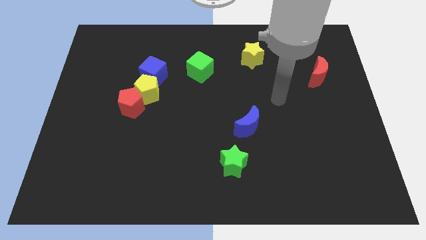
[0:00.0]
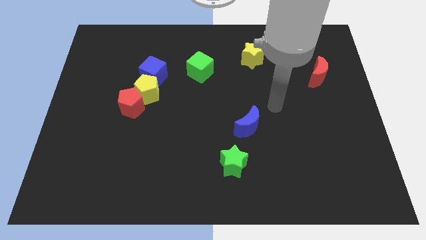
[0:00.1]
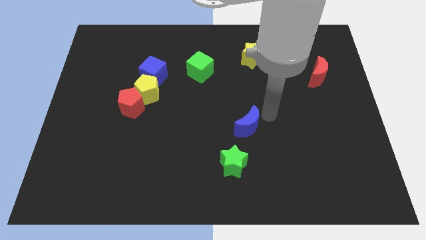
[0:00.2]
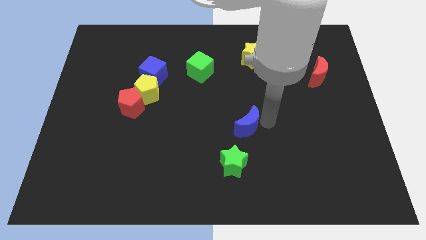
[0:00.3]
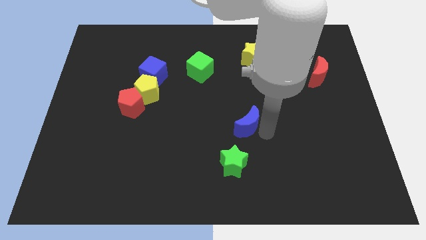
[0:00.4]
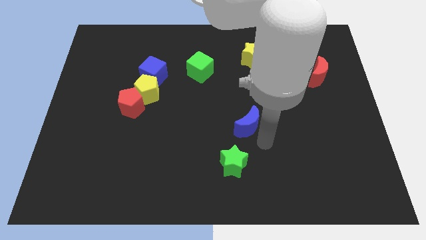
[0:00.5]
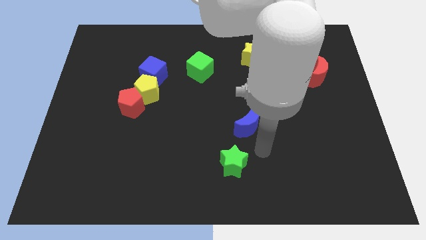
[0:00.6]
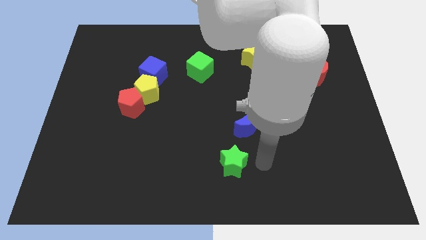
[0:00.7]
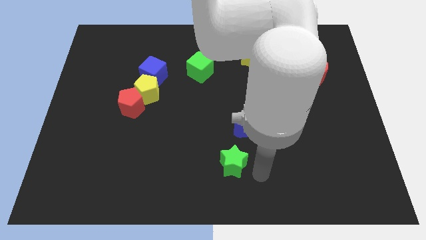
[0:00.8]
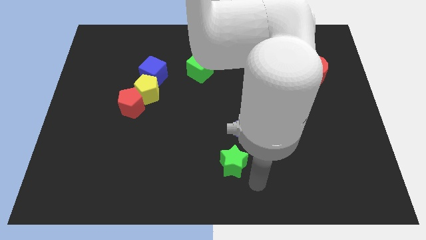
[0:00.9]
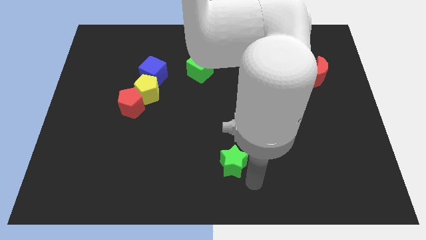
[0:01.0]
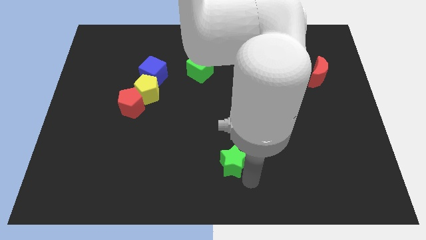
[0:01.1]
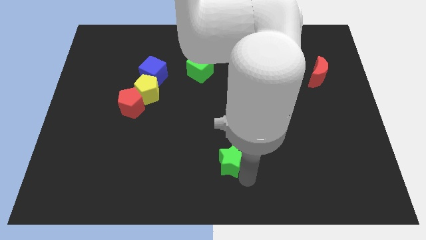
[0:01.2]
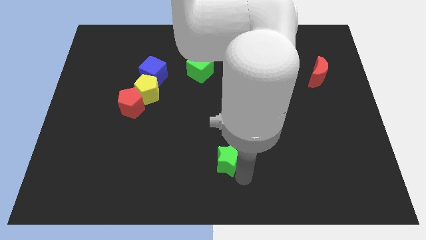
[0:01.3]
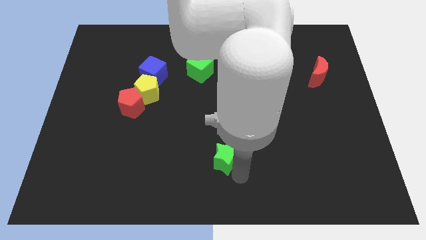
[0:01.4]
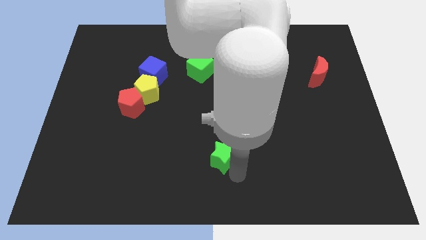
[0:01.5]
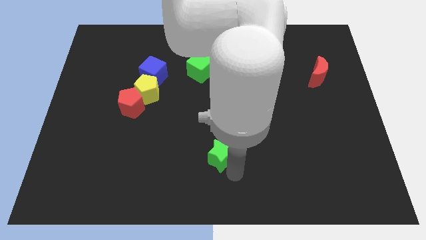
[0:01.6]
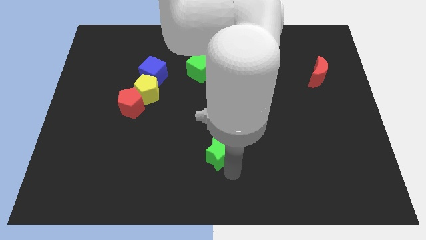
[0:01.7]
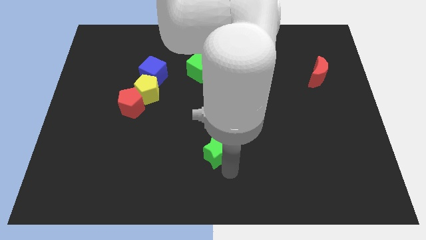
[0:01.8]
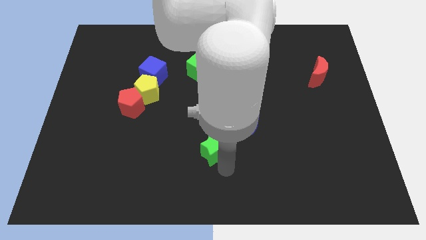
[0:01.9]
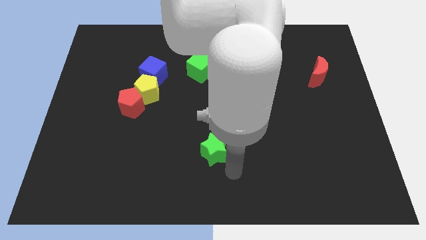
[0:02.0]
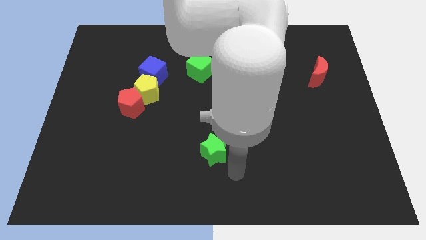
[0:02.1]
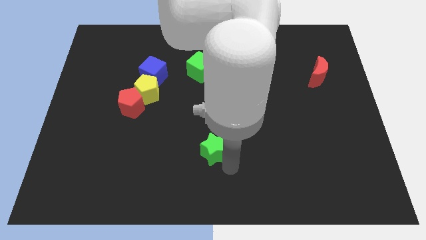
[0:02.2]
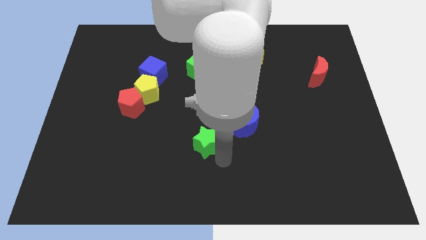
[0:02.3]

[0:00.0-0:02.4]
slightly slide the green star up and to the left diagonally

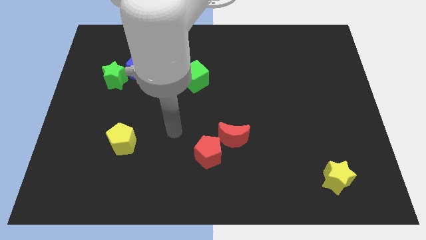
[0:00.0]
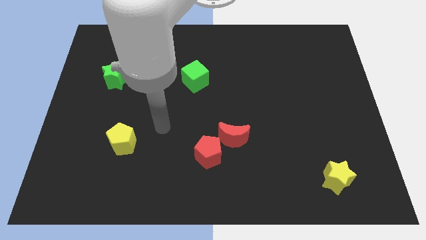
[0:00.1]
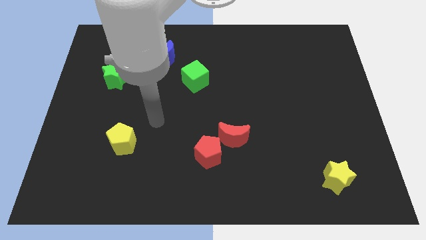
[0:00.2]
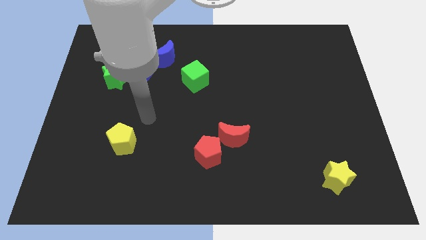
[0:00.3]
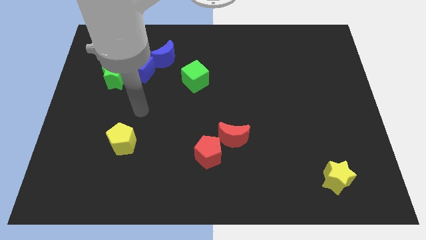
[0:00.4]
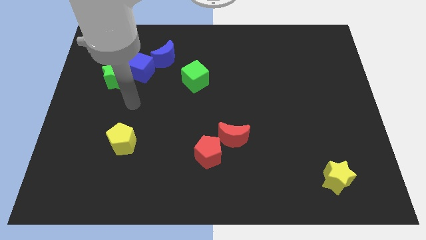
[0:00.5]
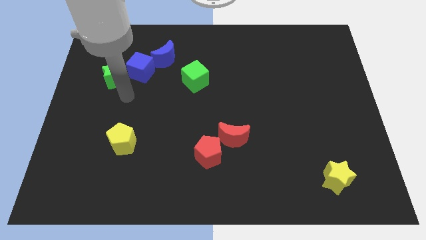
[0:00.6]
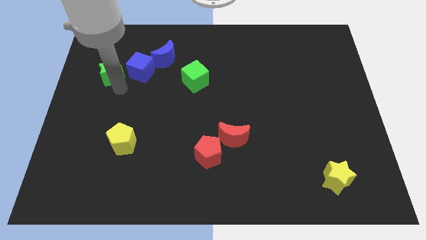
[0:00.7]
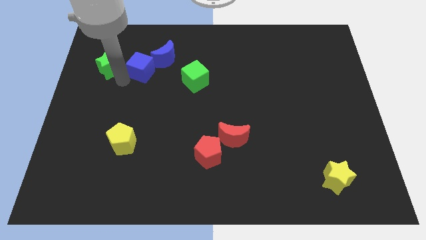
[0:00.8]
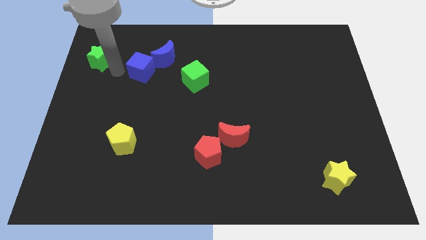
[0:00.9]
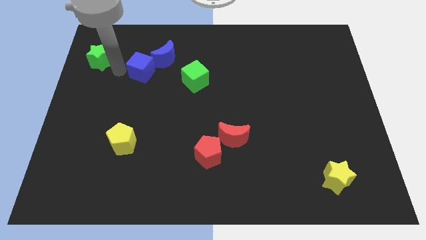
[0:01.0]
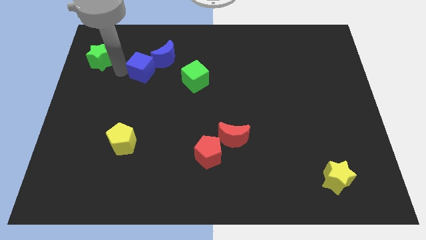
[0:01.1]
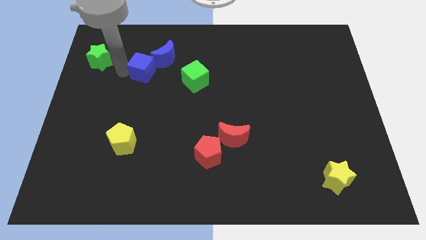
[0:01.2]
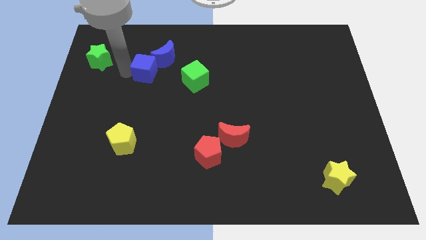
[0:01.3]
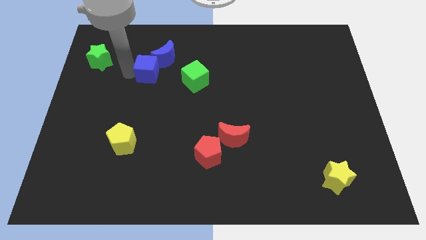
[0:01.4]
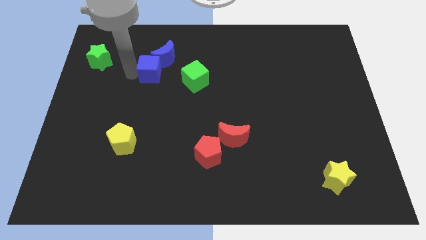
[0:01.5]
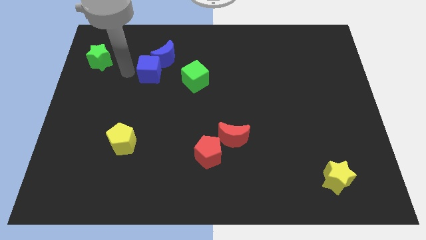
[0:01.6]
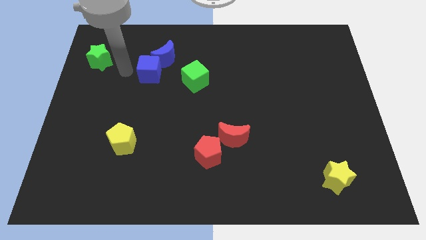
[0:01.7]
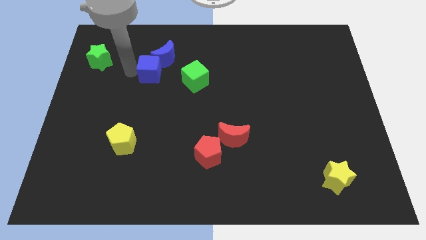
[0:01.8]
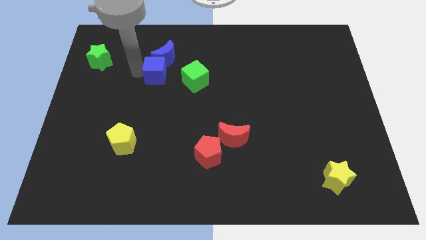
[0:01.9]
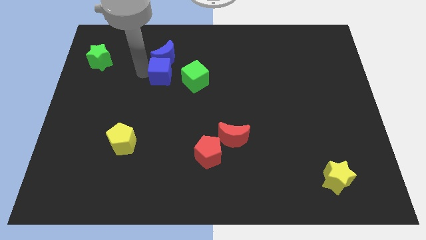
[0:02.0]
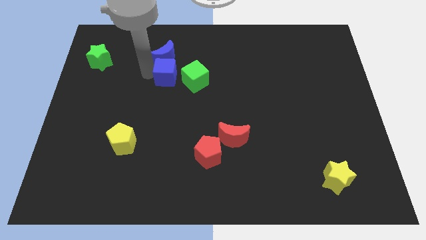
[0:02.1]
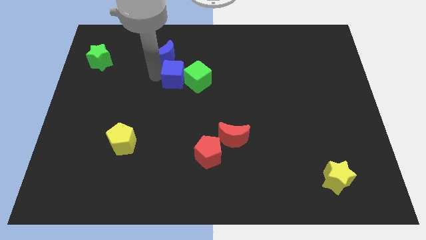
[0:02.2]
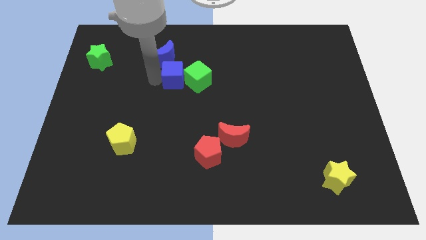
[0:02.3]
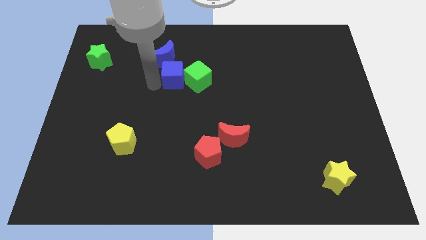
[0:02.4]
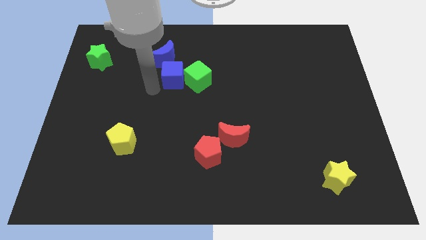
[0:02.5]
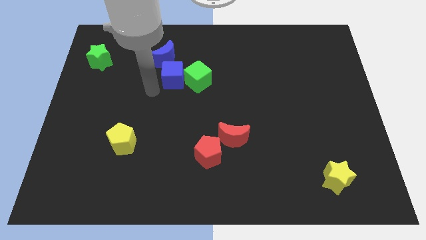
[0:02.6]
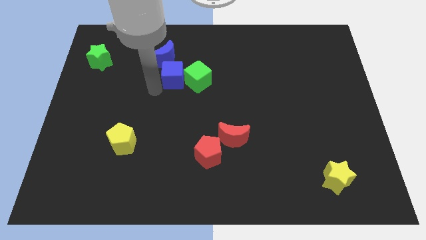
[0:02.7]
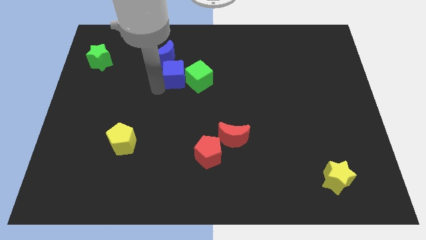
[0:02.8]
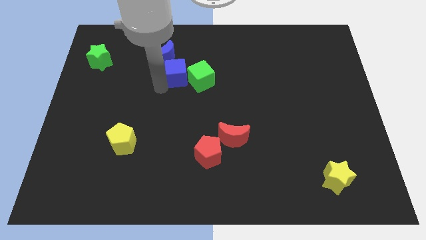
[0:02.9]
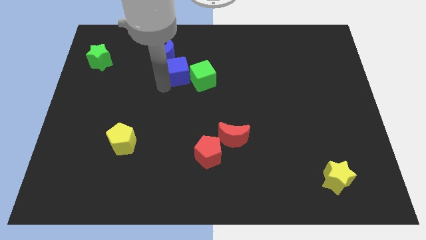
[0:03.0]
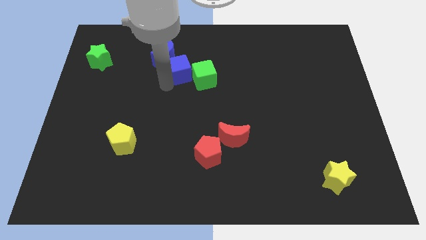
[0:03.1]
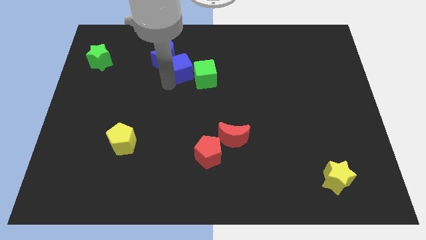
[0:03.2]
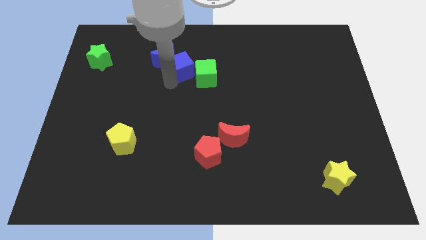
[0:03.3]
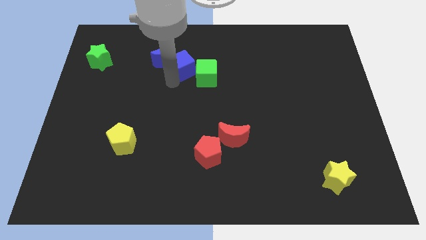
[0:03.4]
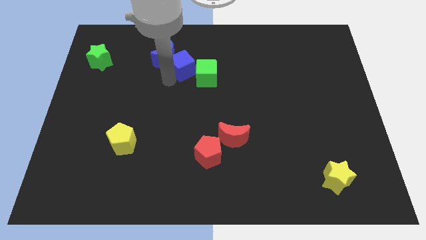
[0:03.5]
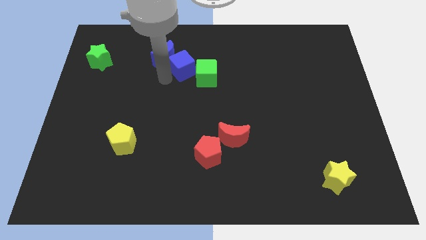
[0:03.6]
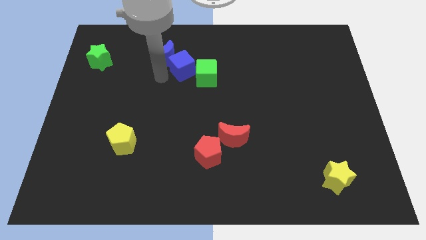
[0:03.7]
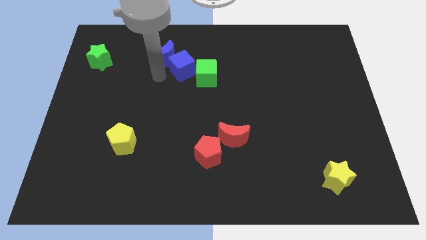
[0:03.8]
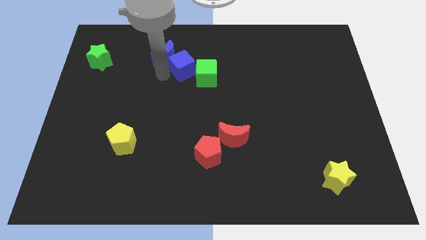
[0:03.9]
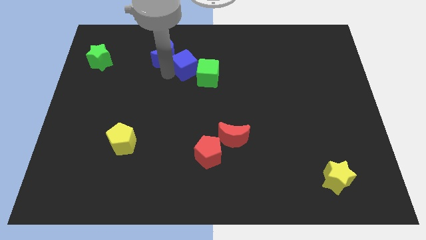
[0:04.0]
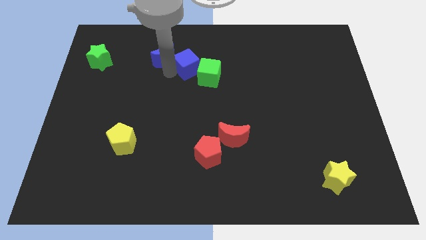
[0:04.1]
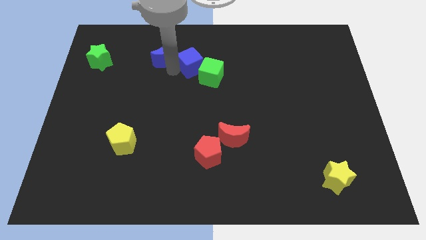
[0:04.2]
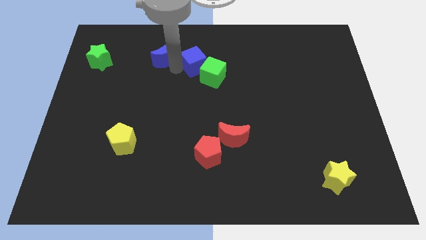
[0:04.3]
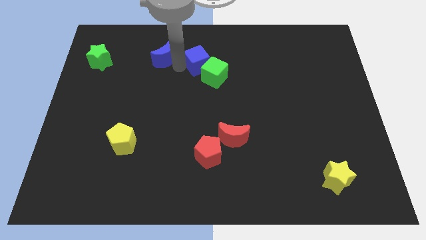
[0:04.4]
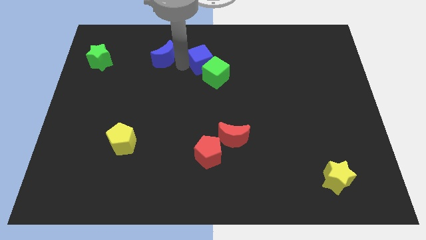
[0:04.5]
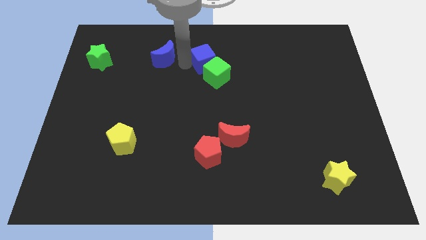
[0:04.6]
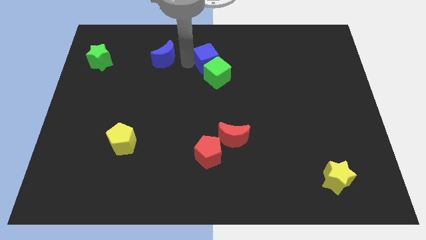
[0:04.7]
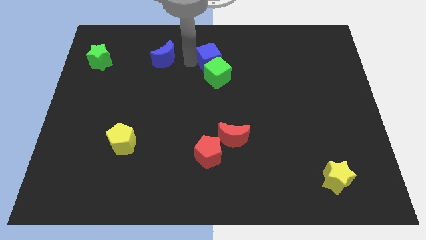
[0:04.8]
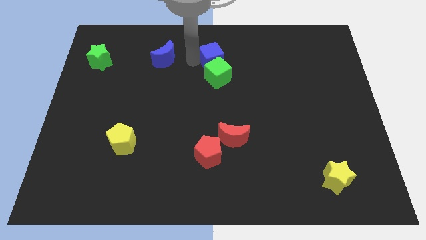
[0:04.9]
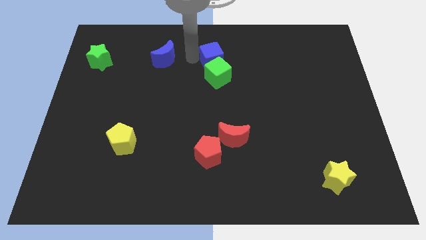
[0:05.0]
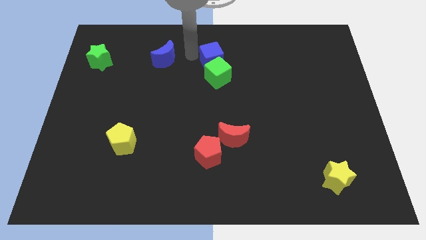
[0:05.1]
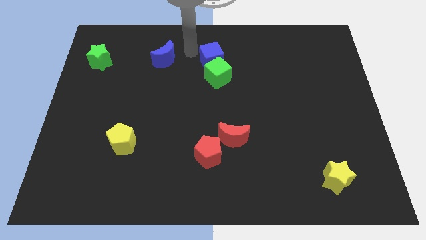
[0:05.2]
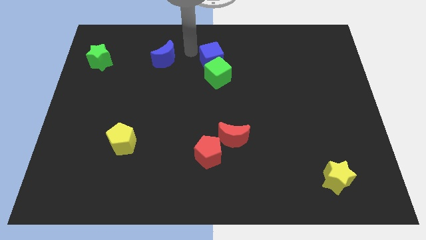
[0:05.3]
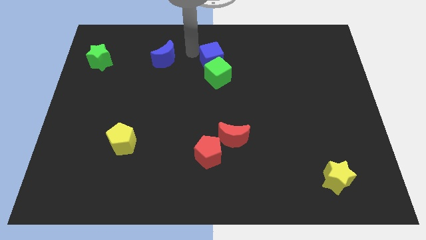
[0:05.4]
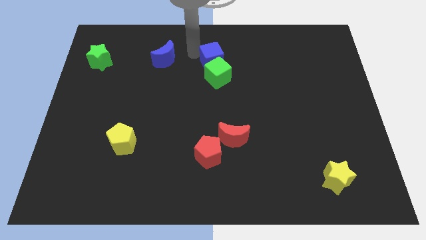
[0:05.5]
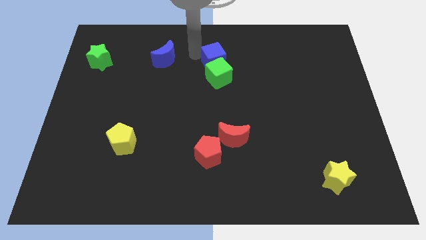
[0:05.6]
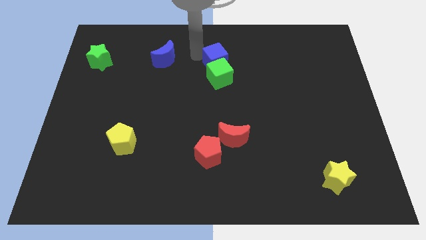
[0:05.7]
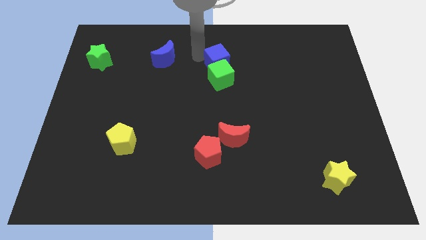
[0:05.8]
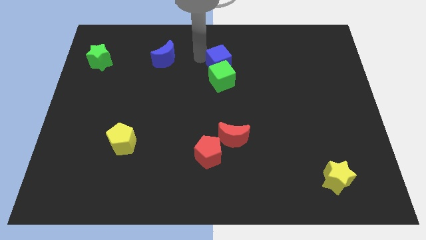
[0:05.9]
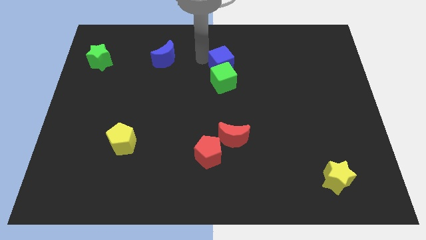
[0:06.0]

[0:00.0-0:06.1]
slide the blue cube right
